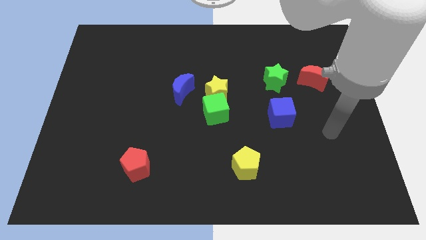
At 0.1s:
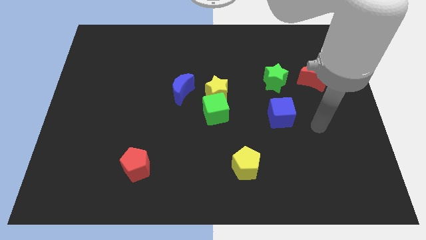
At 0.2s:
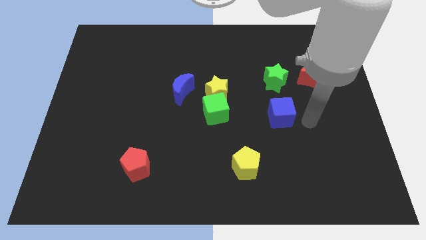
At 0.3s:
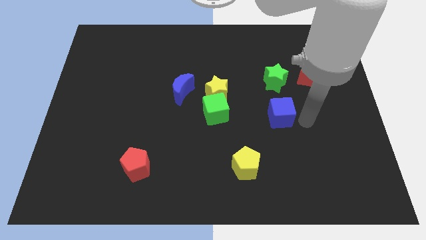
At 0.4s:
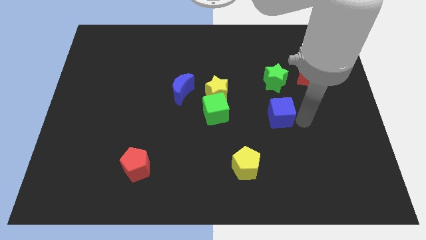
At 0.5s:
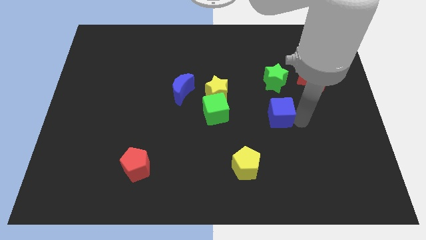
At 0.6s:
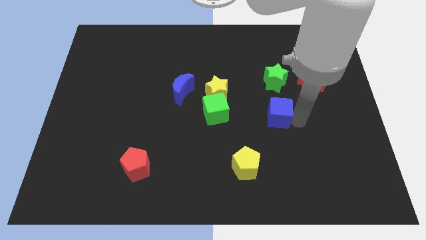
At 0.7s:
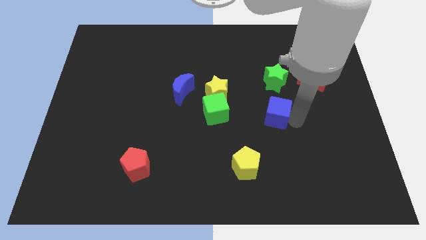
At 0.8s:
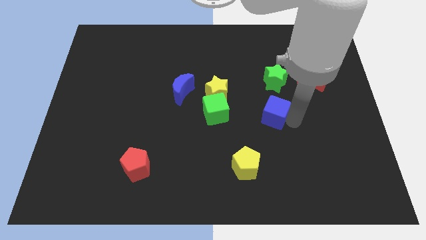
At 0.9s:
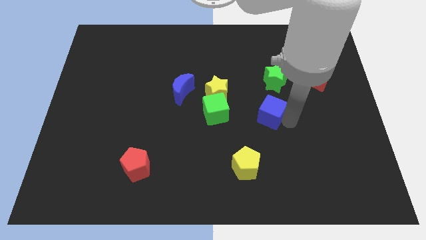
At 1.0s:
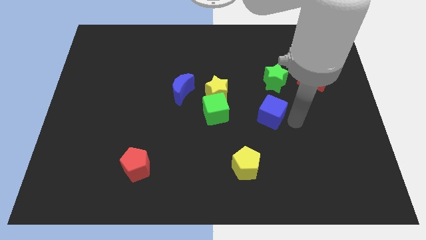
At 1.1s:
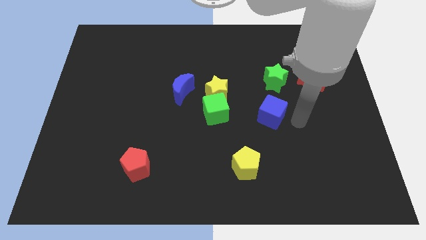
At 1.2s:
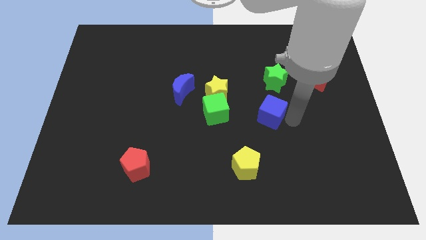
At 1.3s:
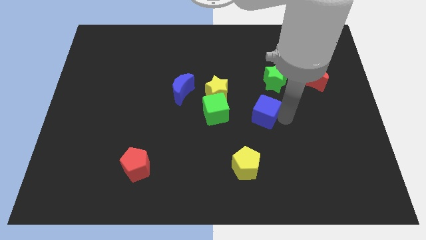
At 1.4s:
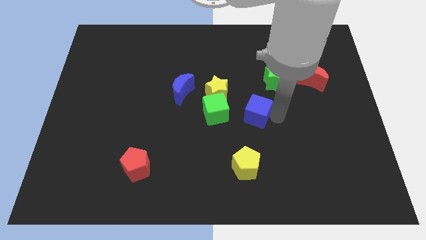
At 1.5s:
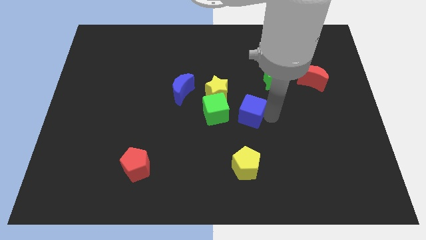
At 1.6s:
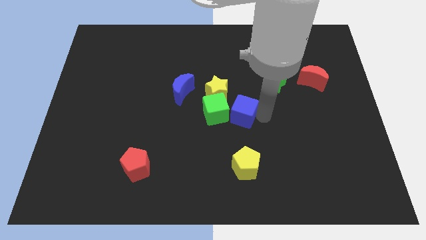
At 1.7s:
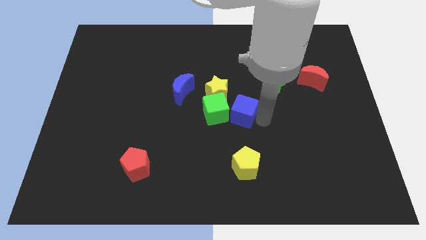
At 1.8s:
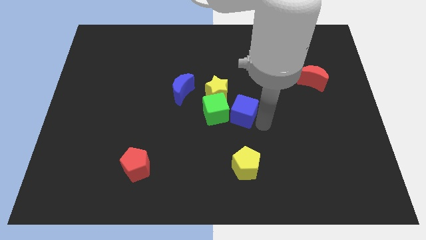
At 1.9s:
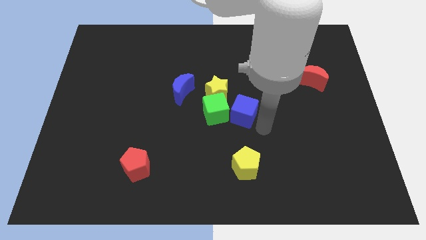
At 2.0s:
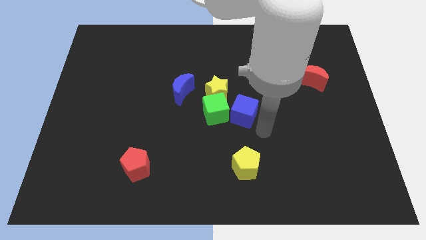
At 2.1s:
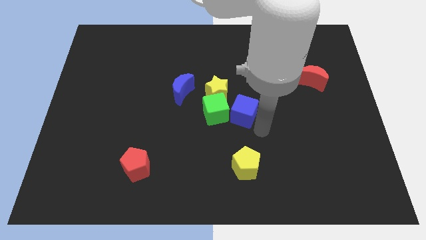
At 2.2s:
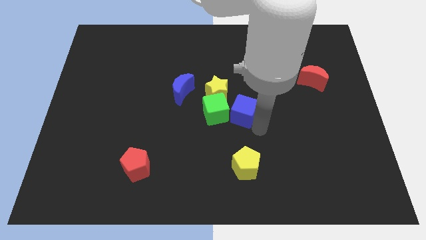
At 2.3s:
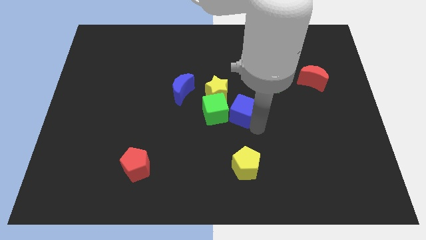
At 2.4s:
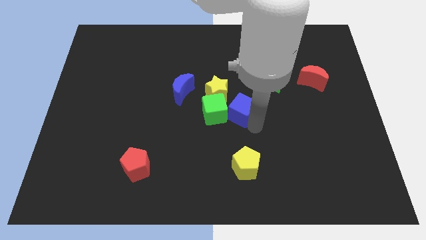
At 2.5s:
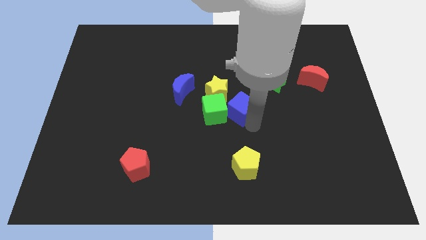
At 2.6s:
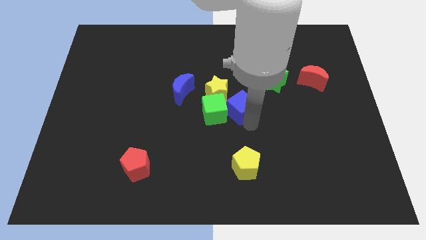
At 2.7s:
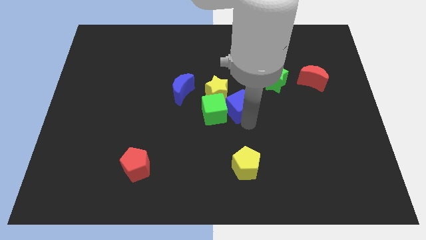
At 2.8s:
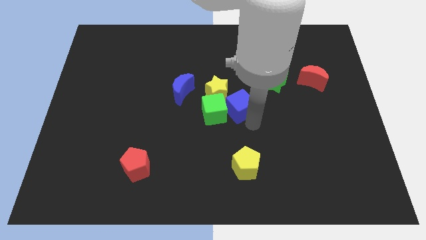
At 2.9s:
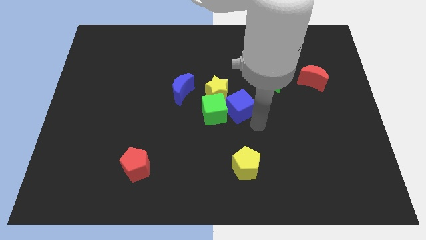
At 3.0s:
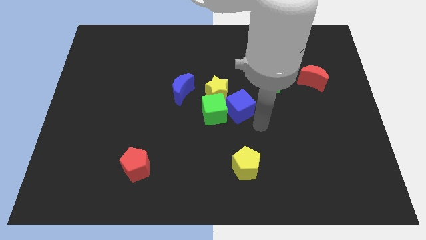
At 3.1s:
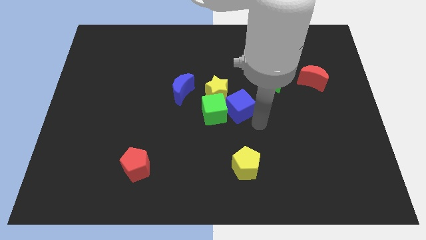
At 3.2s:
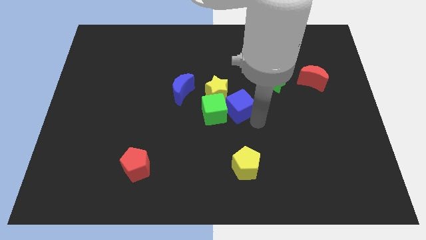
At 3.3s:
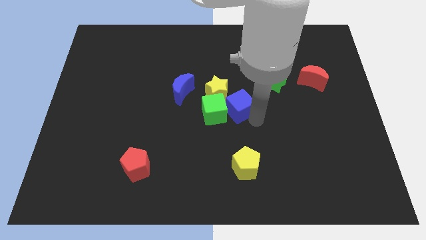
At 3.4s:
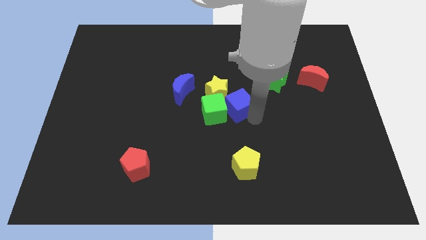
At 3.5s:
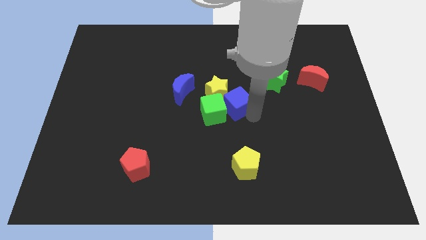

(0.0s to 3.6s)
put the blue cube towards the yellow star

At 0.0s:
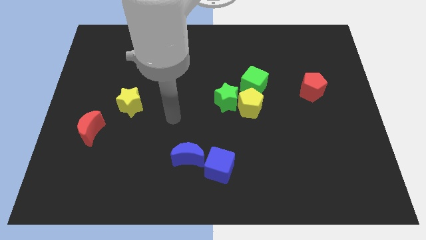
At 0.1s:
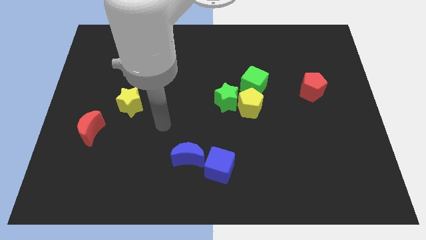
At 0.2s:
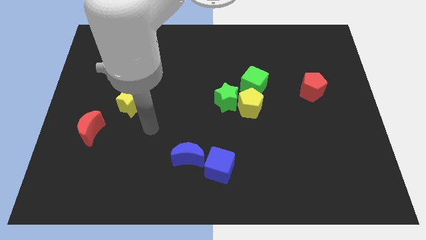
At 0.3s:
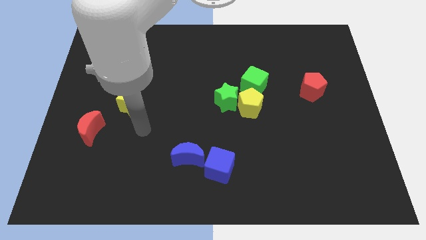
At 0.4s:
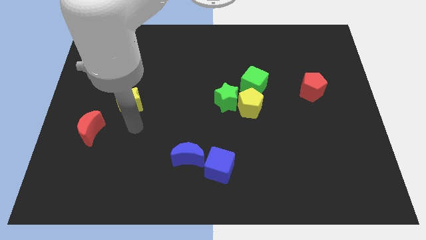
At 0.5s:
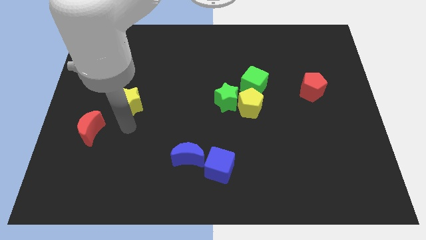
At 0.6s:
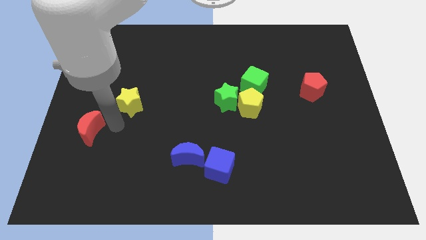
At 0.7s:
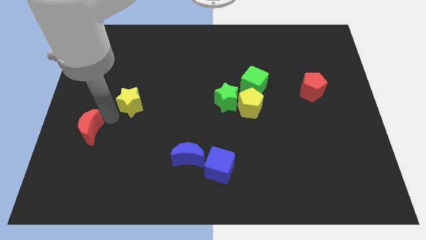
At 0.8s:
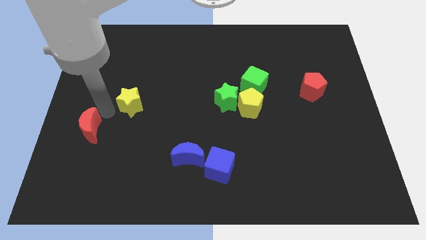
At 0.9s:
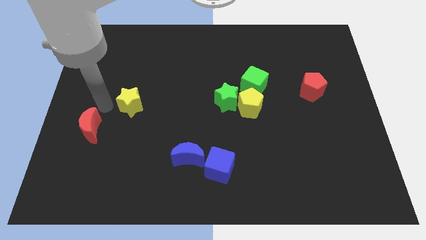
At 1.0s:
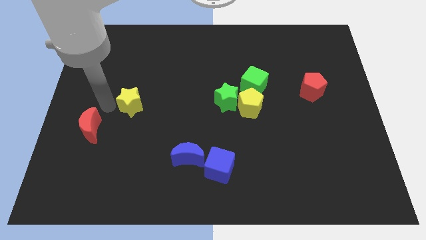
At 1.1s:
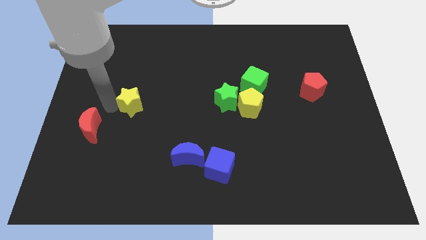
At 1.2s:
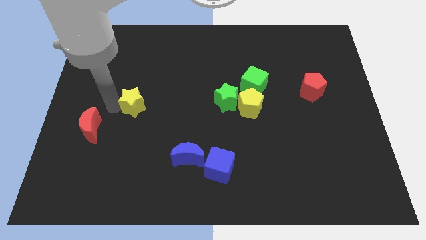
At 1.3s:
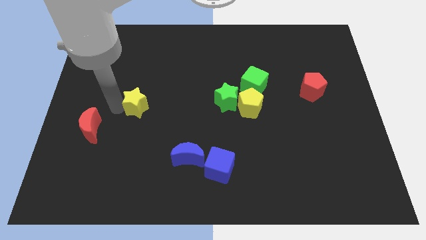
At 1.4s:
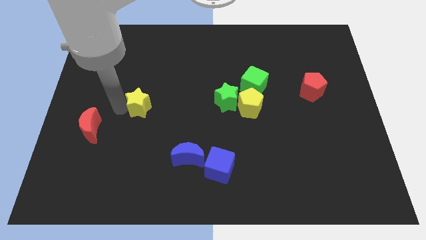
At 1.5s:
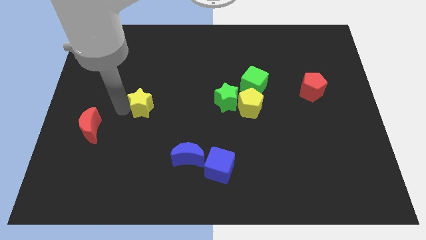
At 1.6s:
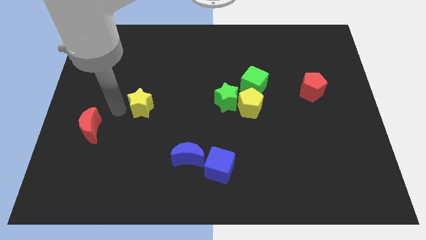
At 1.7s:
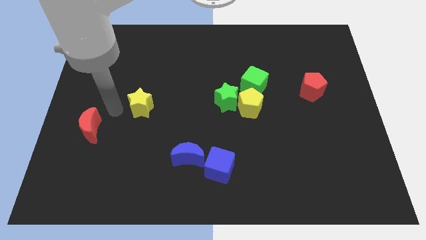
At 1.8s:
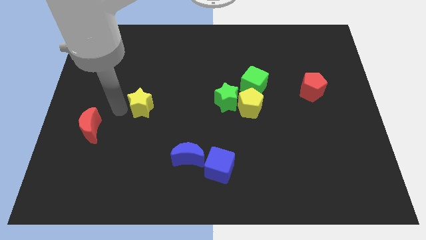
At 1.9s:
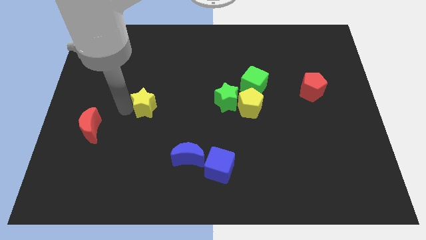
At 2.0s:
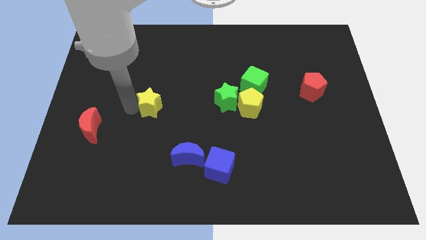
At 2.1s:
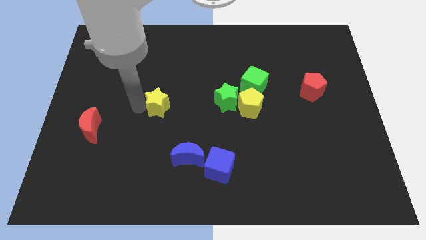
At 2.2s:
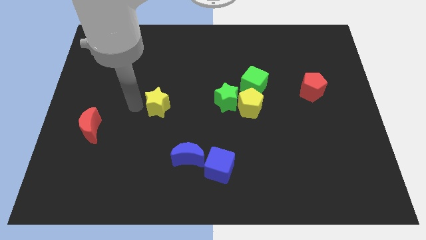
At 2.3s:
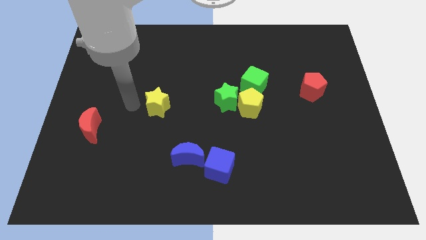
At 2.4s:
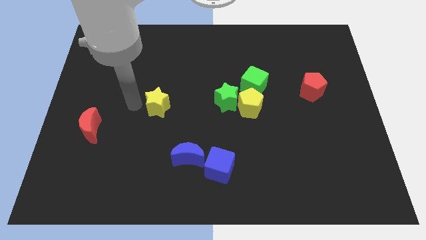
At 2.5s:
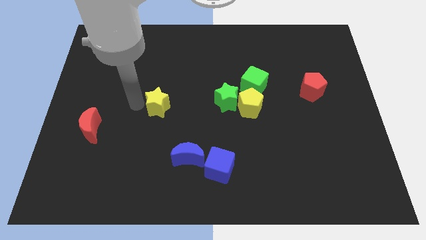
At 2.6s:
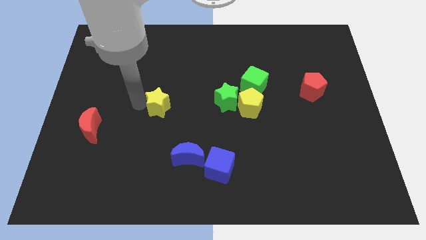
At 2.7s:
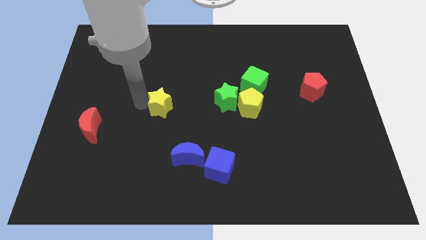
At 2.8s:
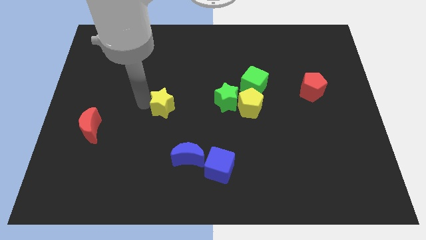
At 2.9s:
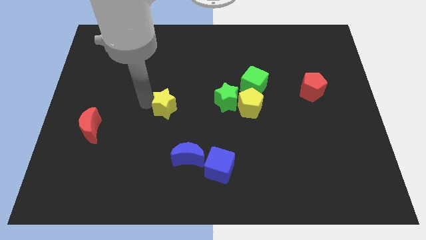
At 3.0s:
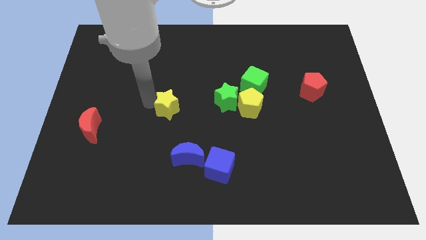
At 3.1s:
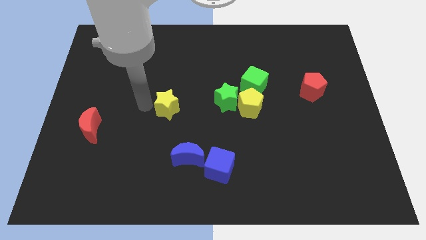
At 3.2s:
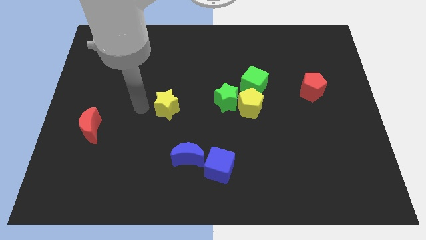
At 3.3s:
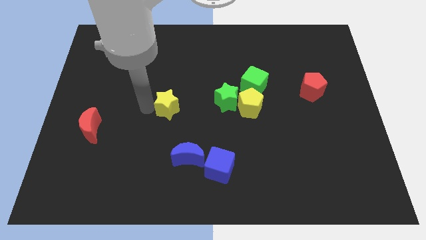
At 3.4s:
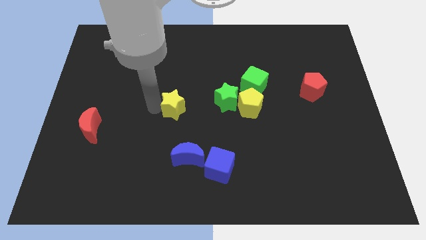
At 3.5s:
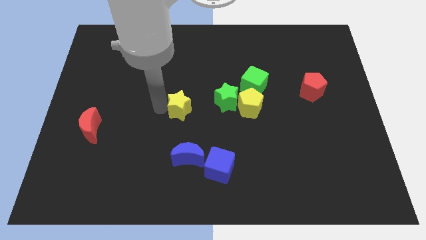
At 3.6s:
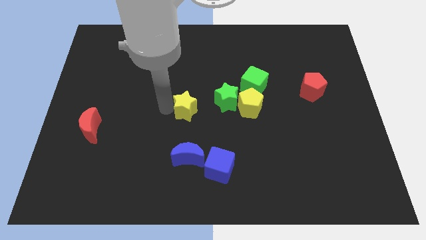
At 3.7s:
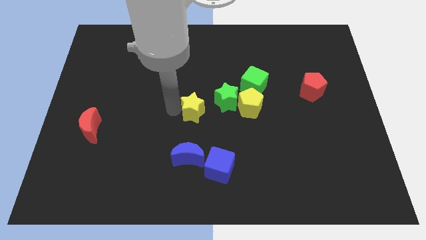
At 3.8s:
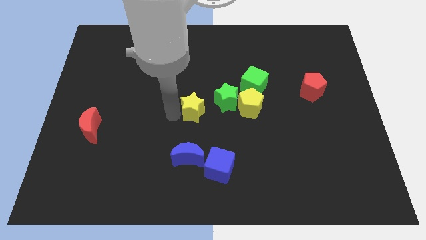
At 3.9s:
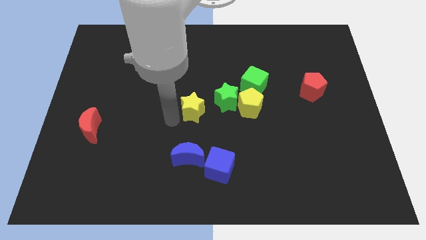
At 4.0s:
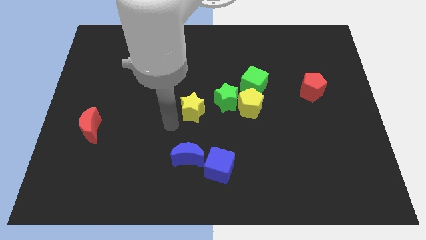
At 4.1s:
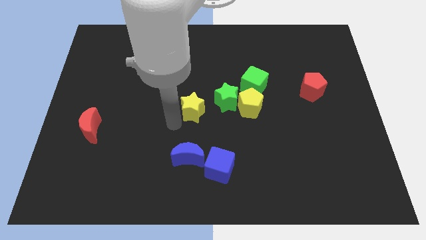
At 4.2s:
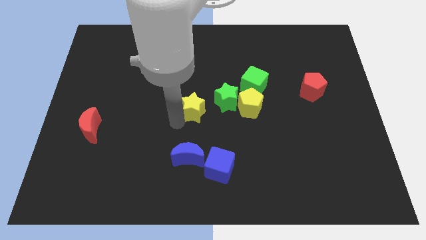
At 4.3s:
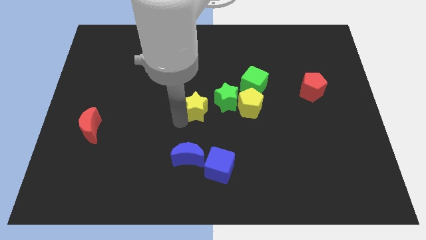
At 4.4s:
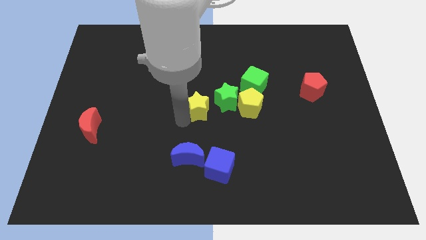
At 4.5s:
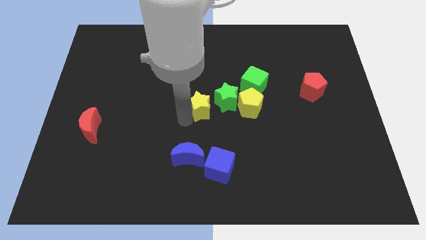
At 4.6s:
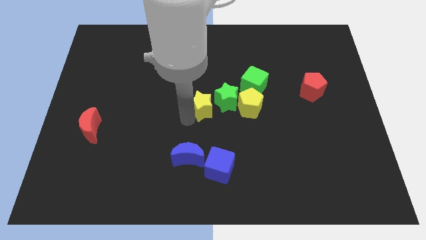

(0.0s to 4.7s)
push the yellow star close to the green star
